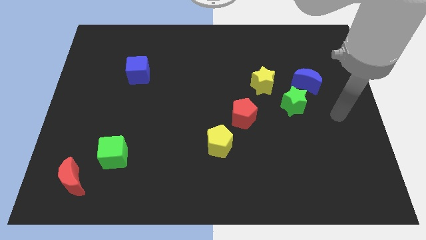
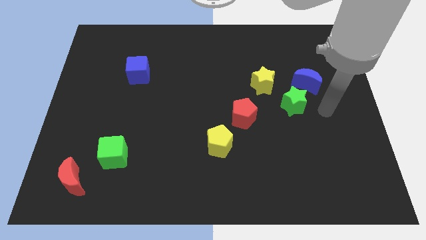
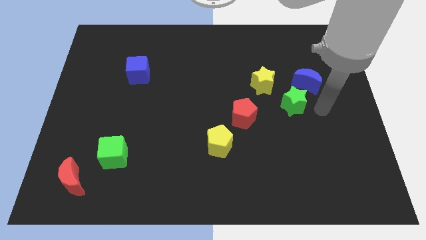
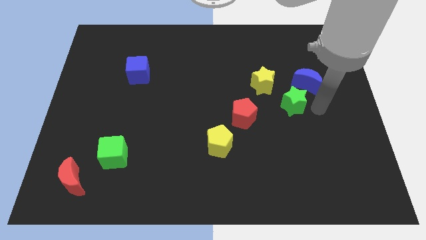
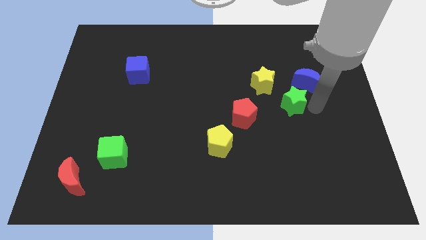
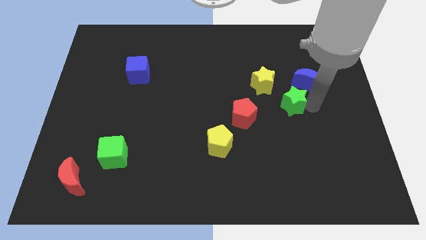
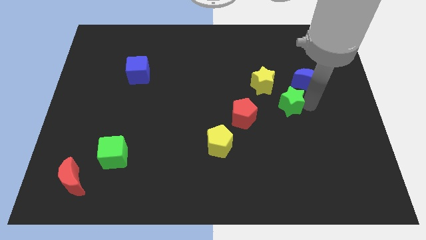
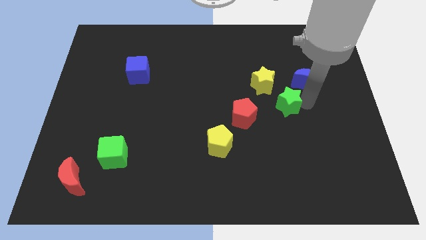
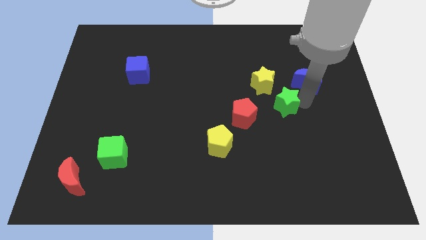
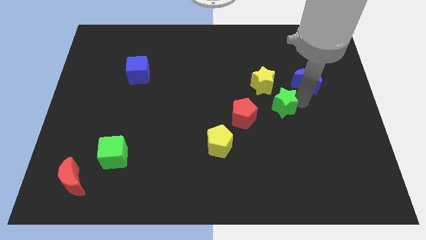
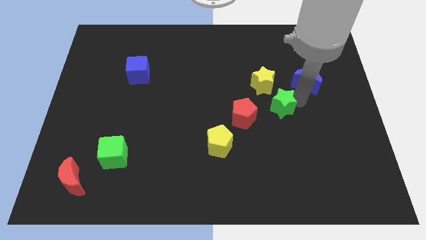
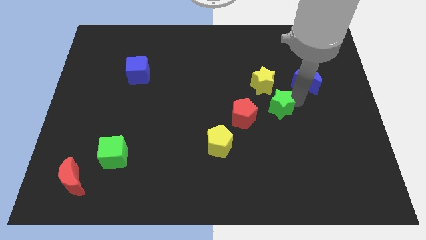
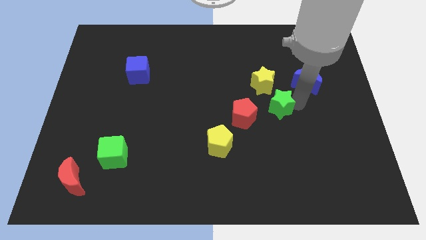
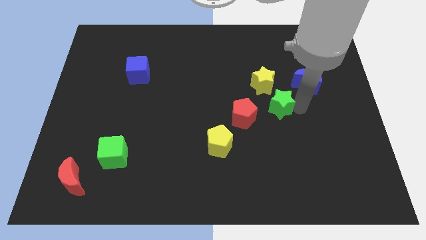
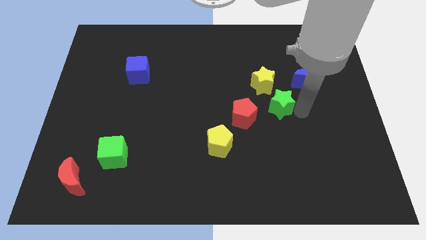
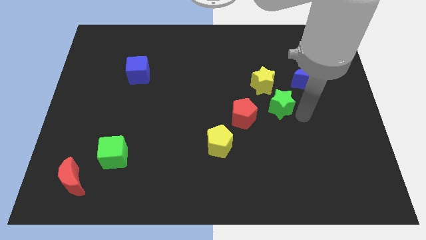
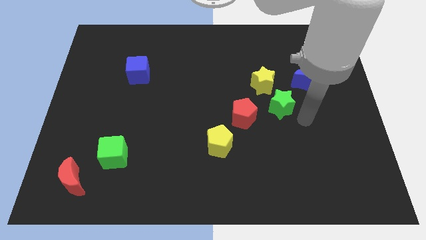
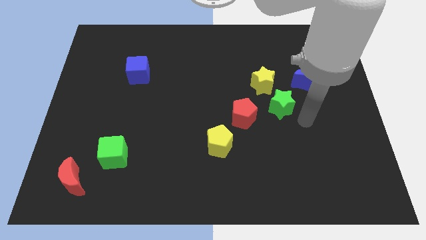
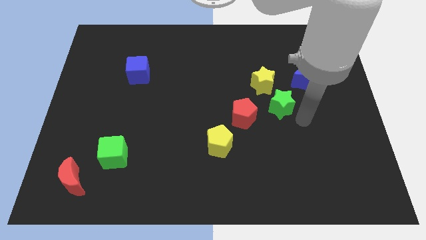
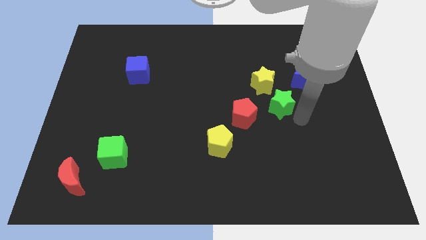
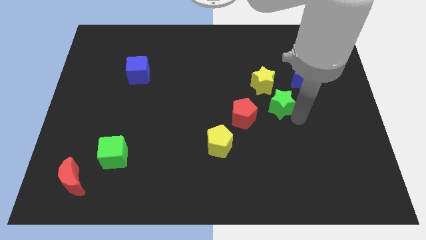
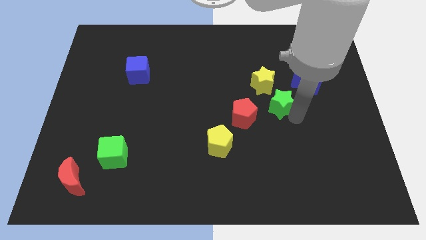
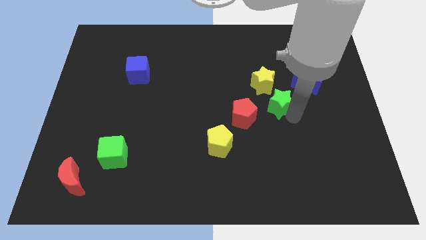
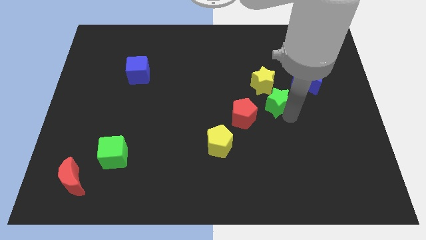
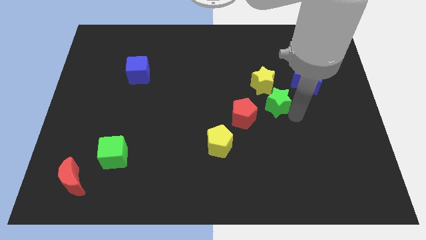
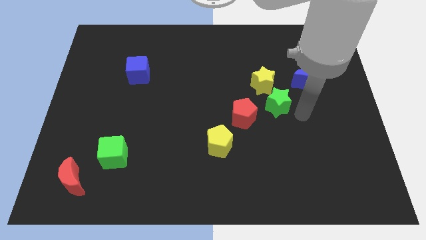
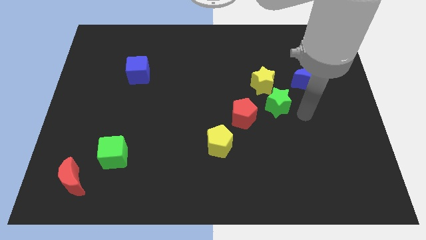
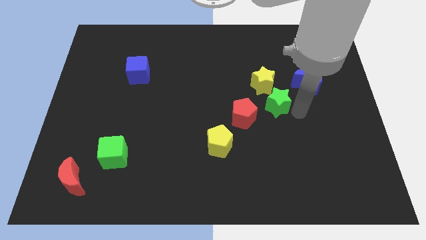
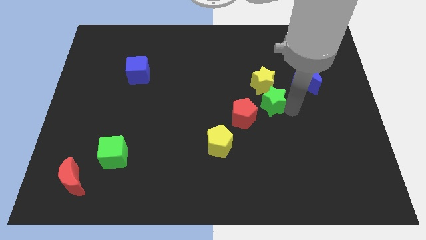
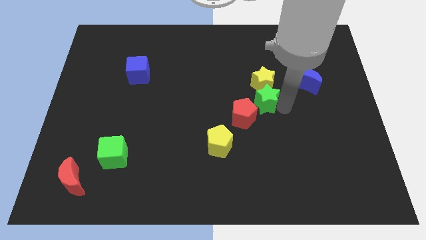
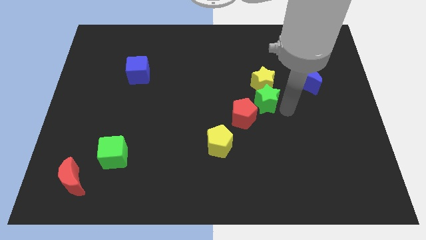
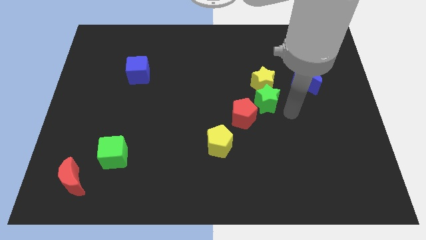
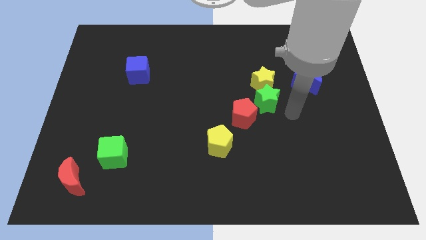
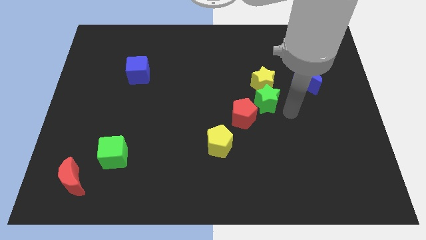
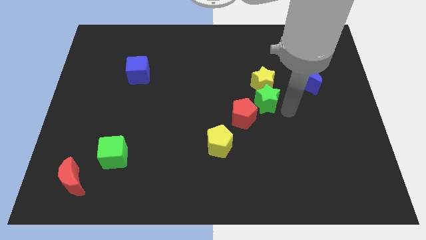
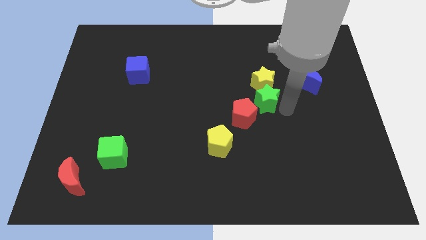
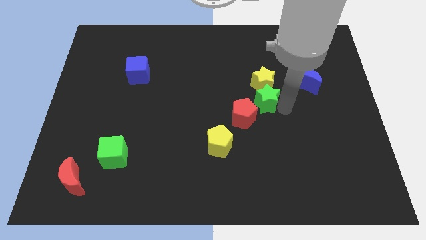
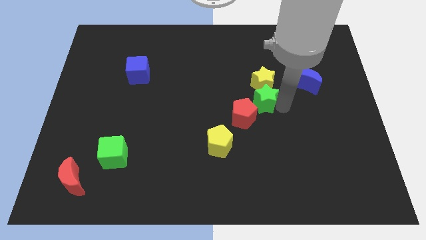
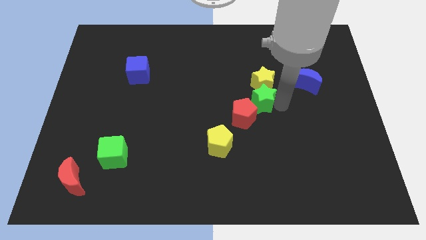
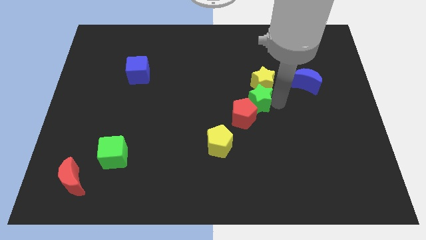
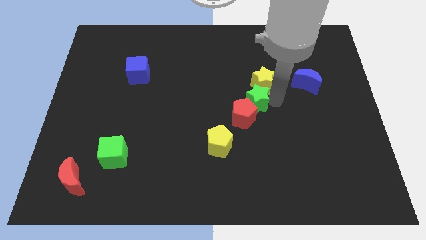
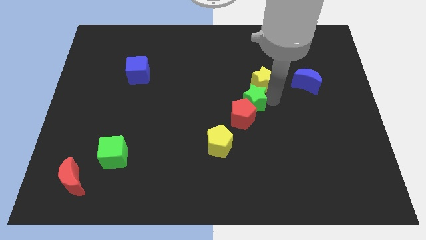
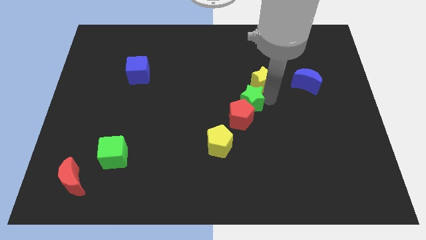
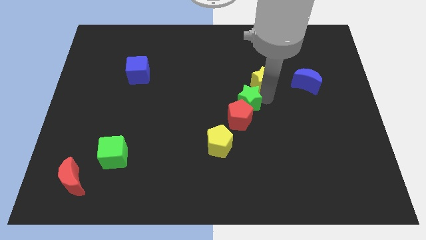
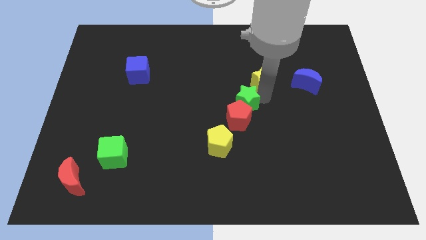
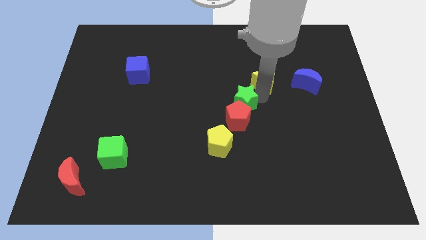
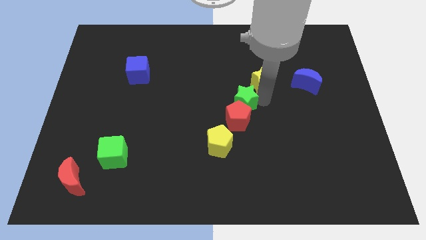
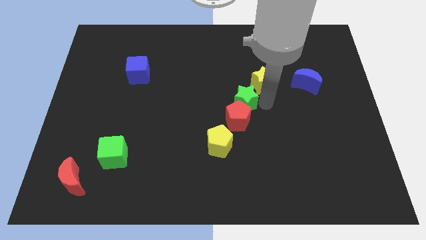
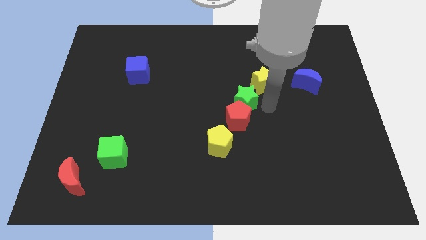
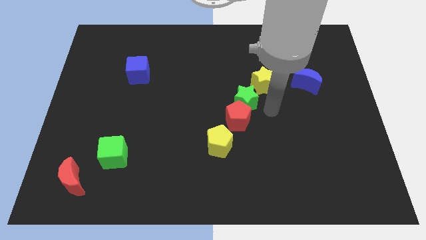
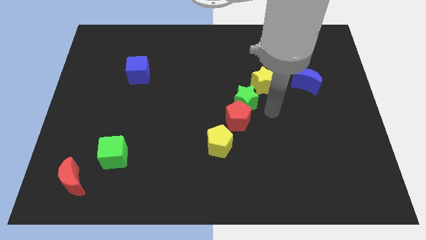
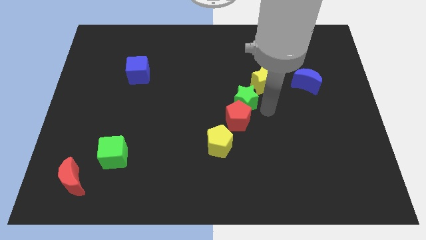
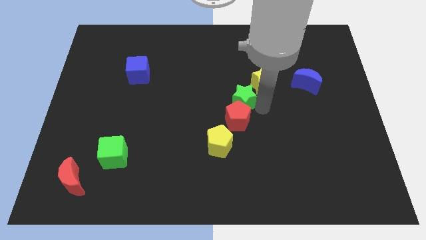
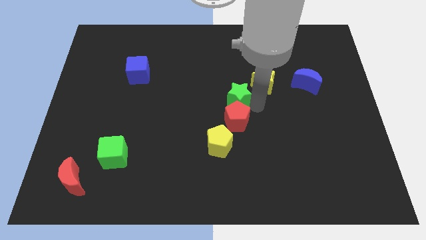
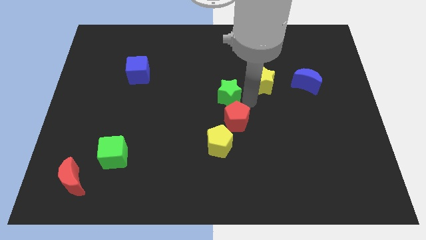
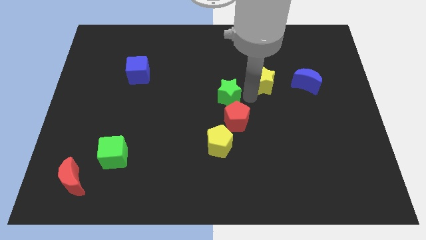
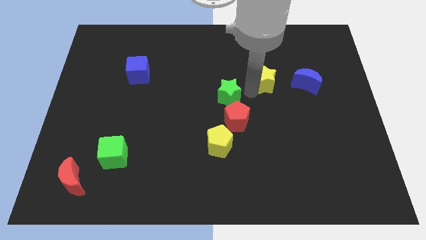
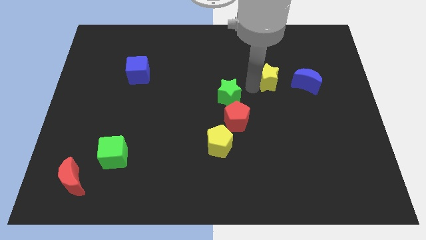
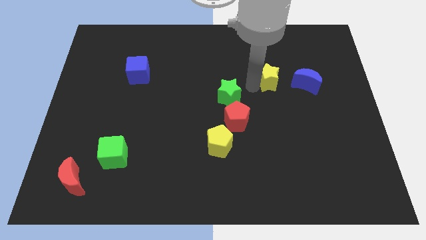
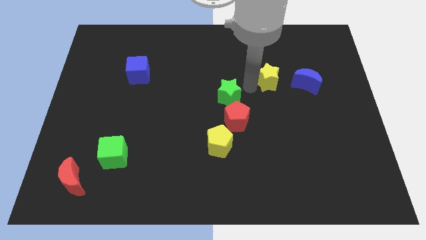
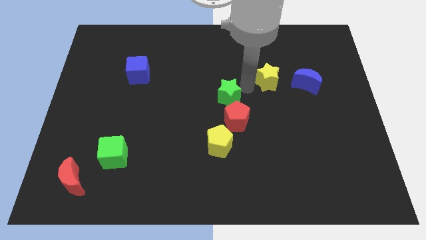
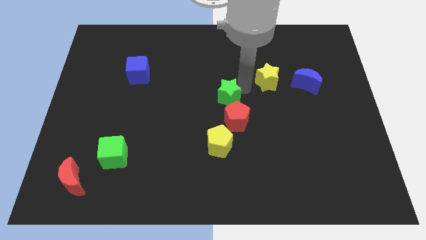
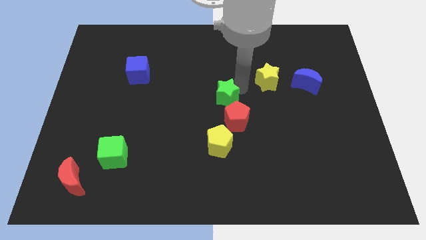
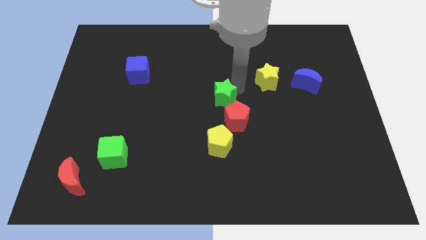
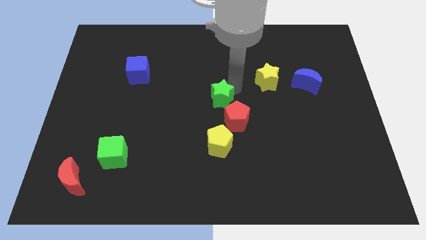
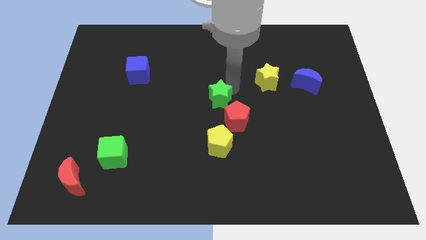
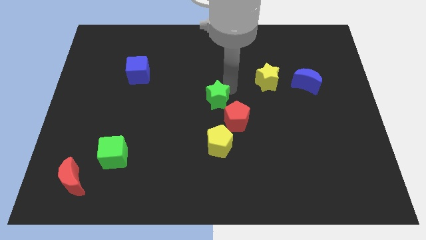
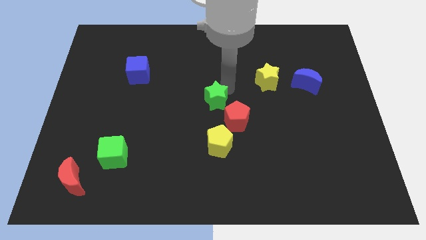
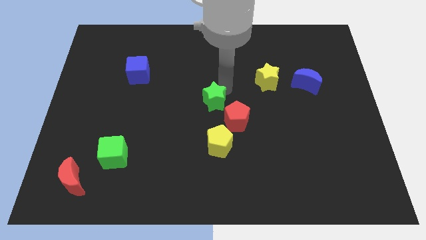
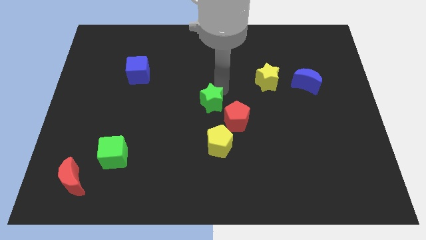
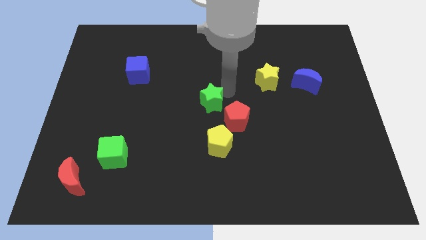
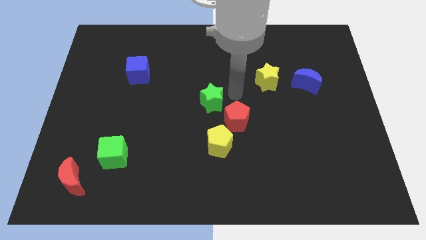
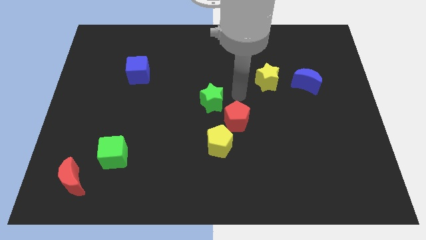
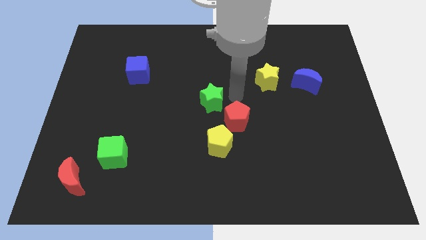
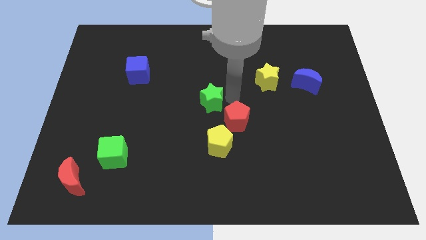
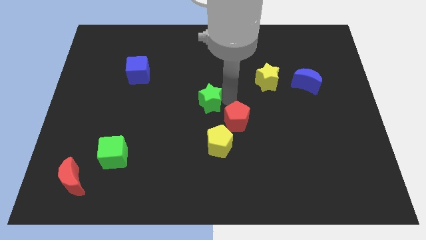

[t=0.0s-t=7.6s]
slide the green star to the left

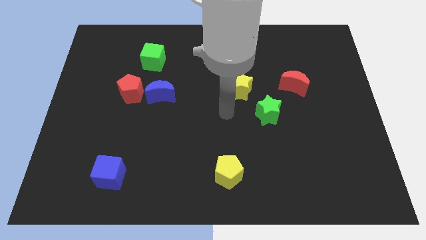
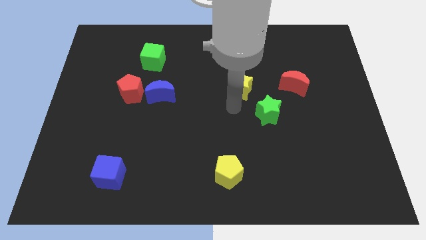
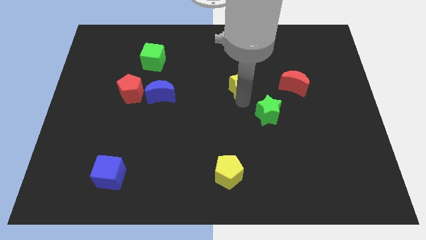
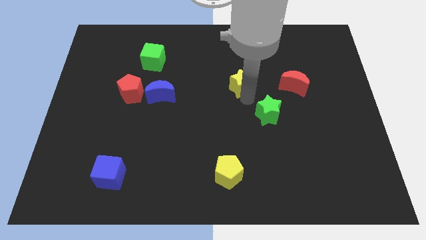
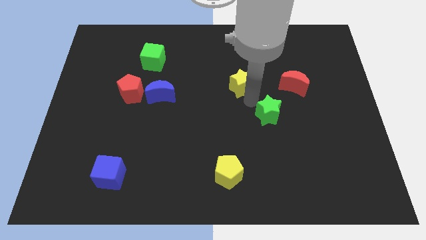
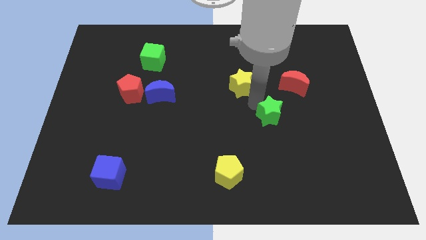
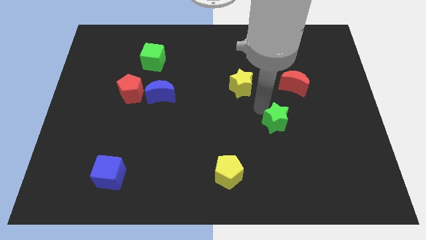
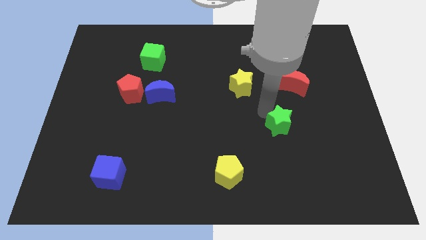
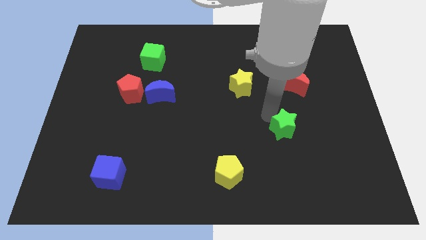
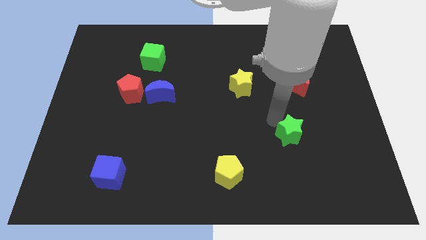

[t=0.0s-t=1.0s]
slightly slide the green star down and then to the right
